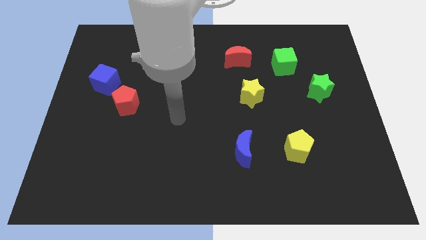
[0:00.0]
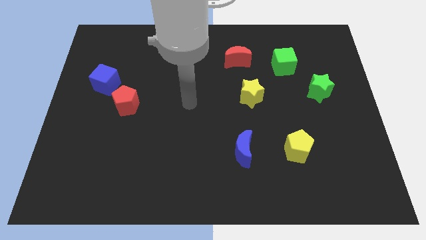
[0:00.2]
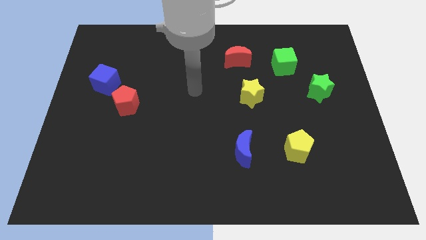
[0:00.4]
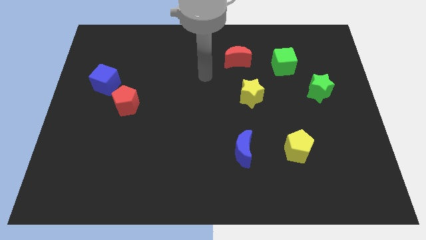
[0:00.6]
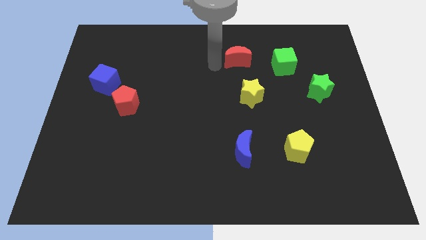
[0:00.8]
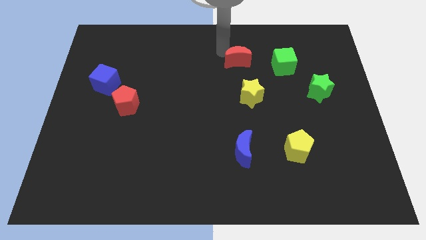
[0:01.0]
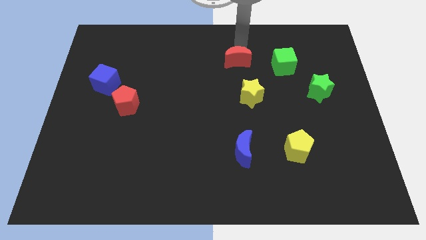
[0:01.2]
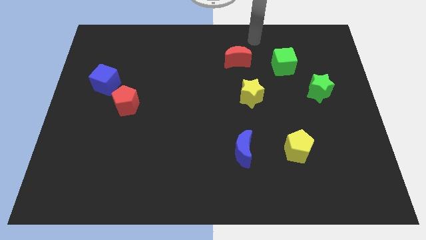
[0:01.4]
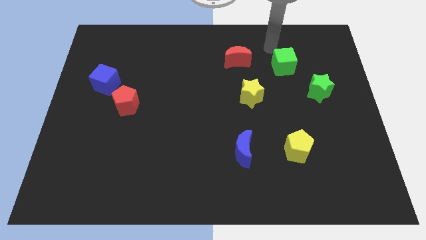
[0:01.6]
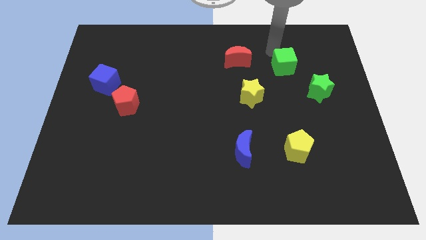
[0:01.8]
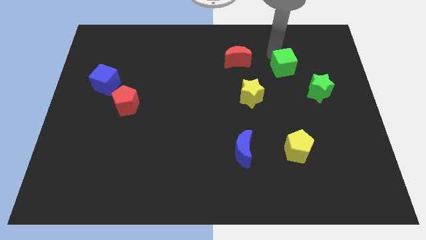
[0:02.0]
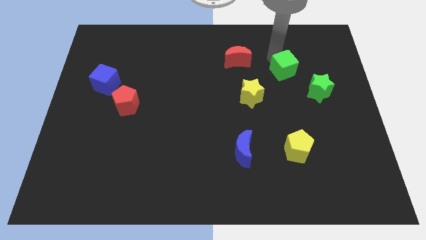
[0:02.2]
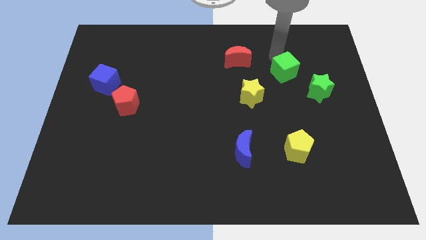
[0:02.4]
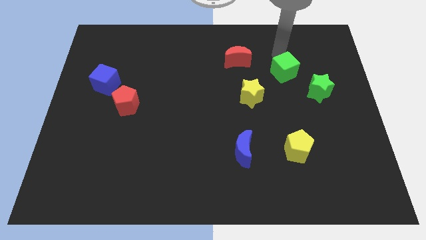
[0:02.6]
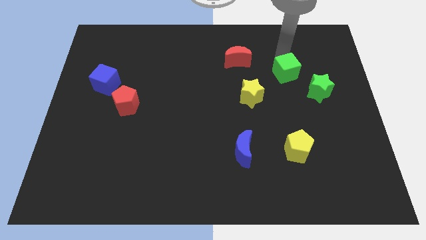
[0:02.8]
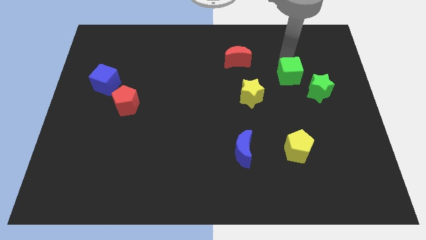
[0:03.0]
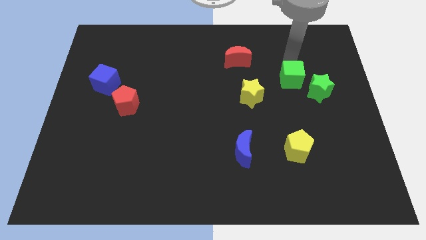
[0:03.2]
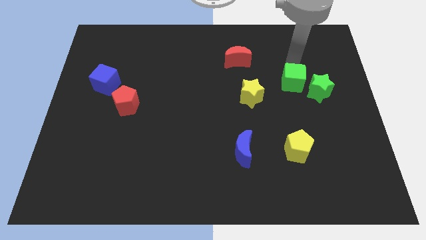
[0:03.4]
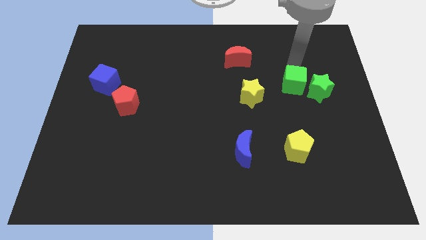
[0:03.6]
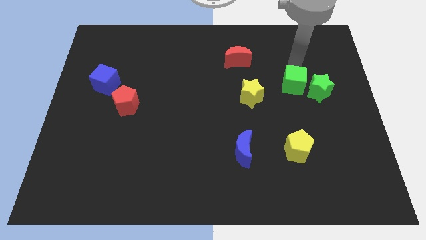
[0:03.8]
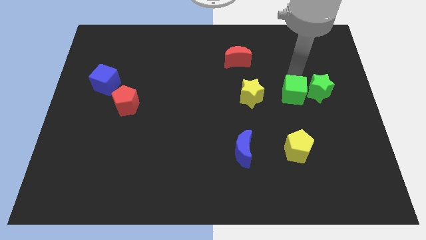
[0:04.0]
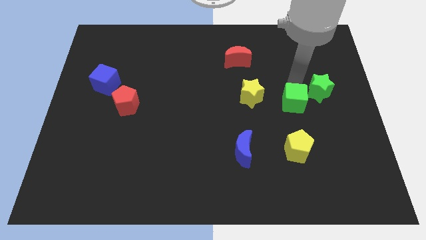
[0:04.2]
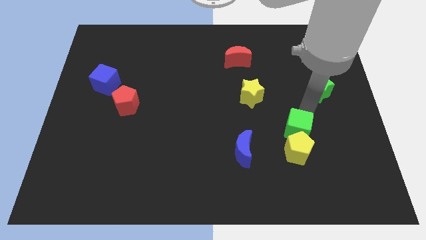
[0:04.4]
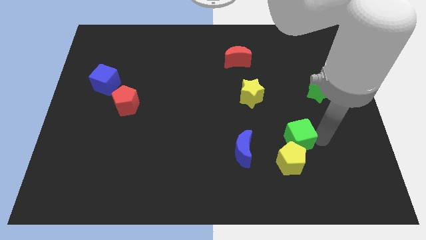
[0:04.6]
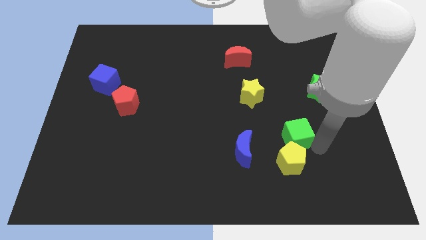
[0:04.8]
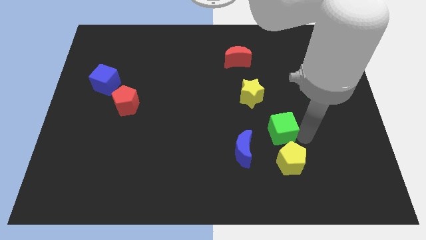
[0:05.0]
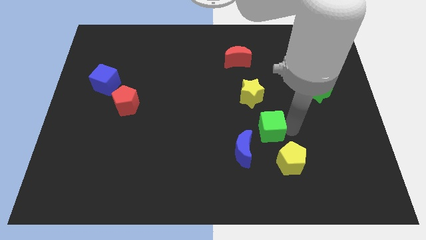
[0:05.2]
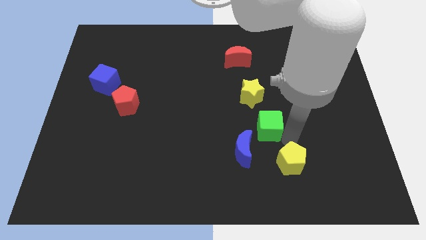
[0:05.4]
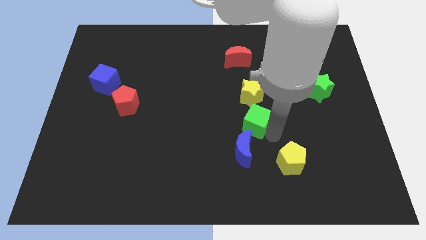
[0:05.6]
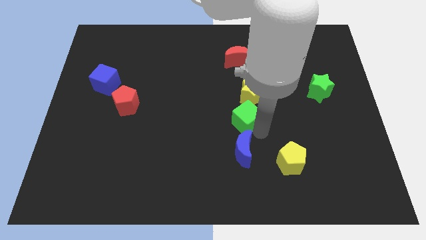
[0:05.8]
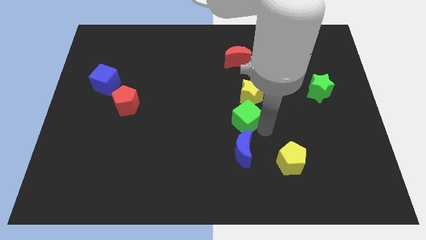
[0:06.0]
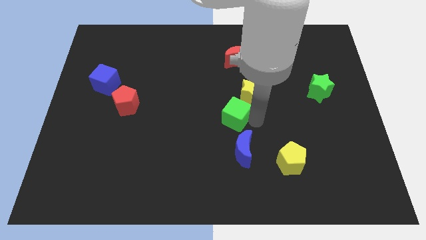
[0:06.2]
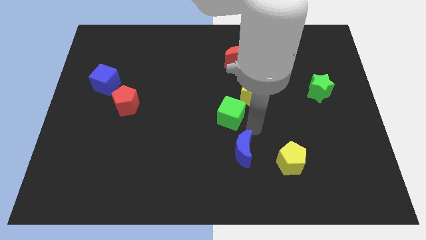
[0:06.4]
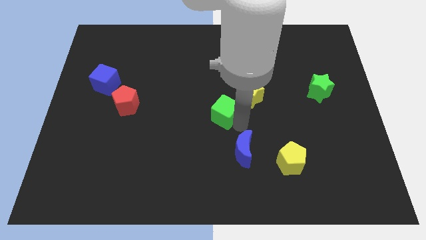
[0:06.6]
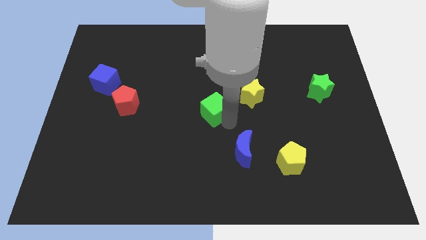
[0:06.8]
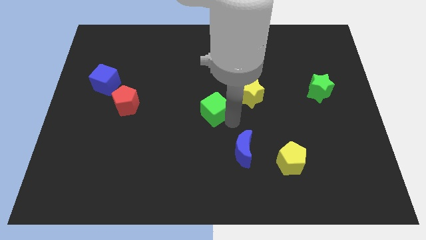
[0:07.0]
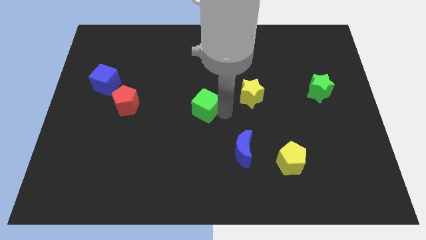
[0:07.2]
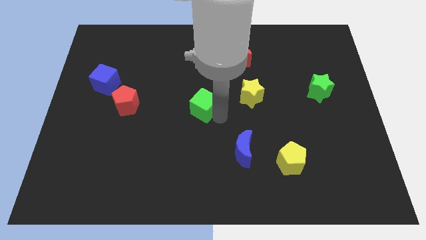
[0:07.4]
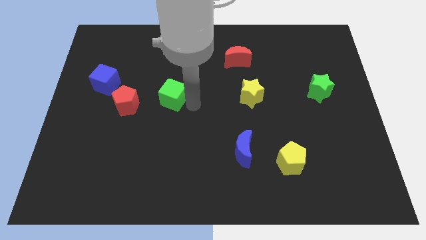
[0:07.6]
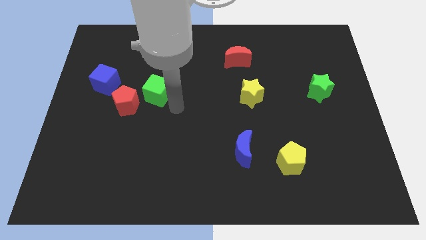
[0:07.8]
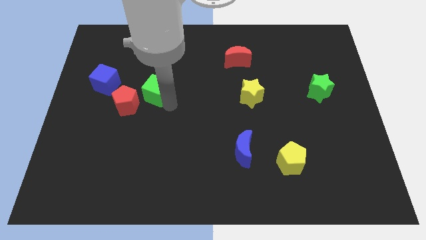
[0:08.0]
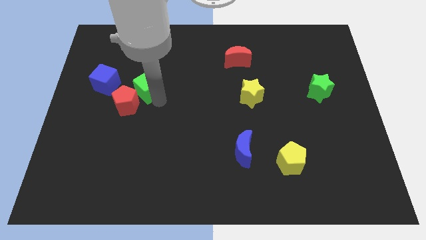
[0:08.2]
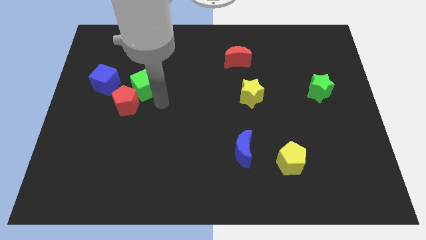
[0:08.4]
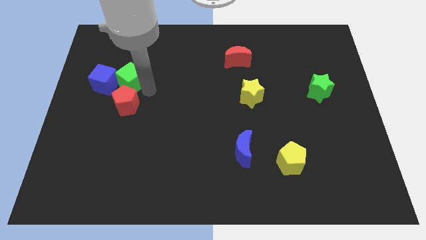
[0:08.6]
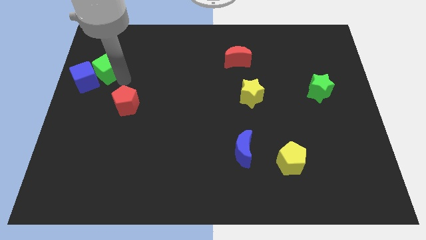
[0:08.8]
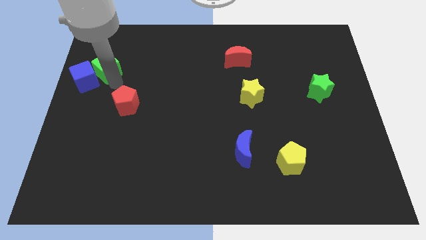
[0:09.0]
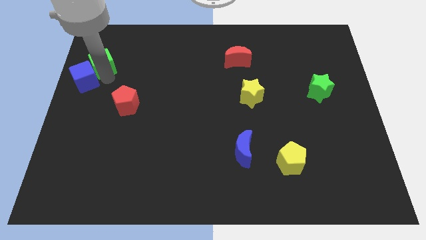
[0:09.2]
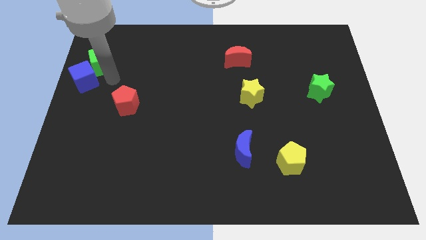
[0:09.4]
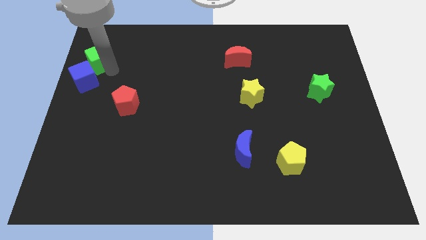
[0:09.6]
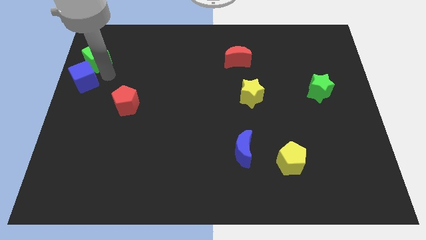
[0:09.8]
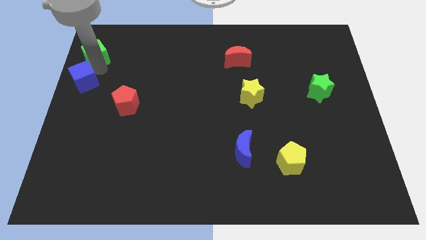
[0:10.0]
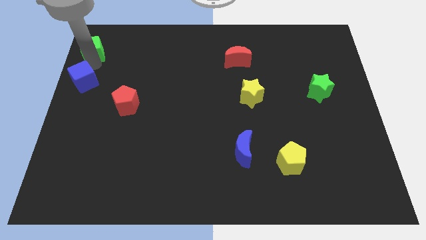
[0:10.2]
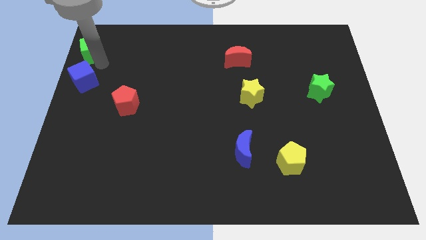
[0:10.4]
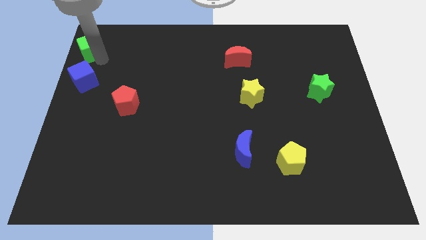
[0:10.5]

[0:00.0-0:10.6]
slide the green cube to the top left

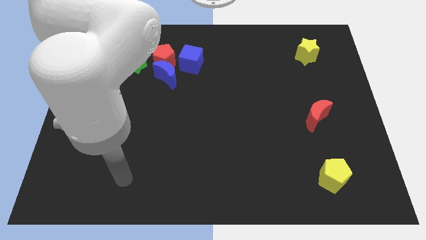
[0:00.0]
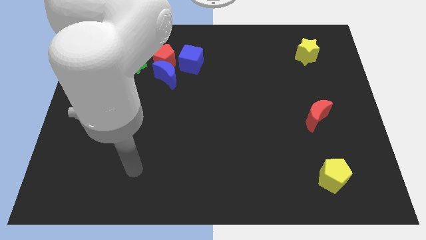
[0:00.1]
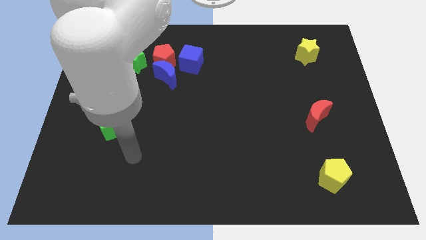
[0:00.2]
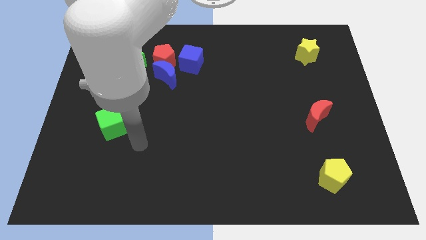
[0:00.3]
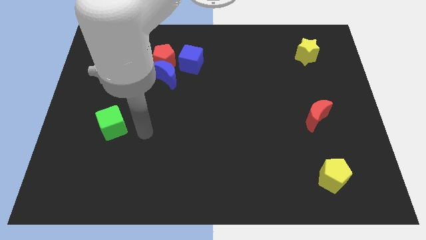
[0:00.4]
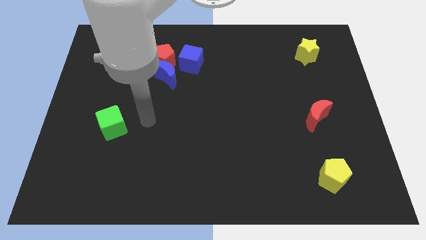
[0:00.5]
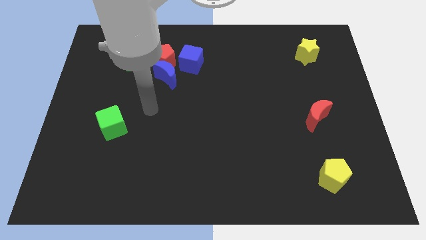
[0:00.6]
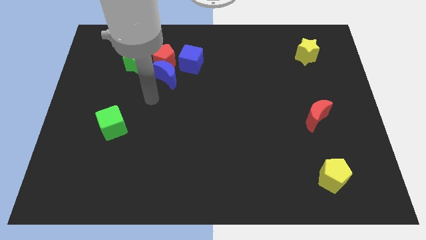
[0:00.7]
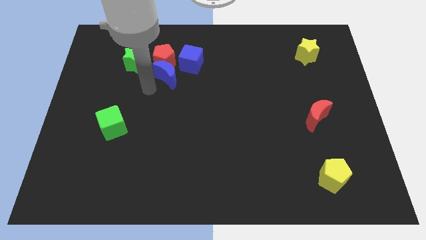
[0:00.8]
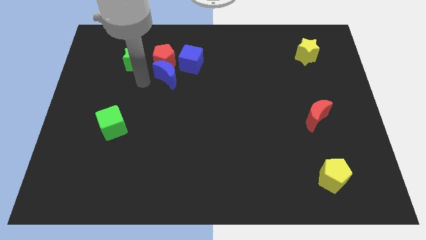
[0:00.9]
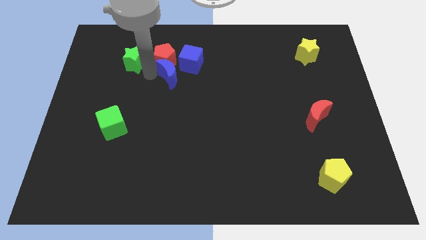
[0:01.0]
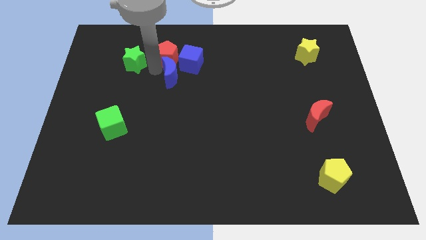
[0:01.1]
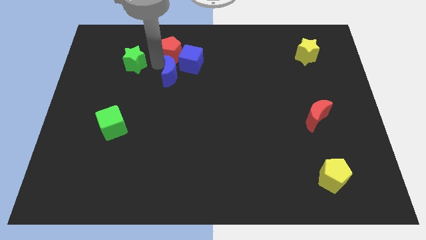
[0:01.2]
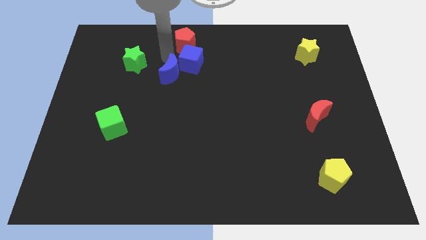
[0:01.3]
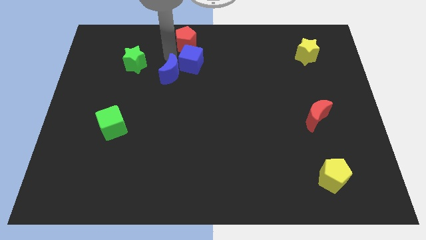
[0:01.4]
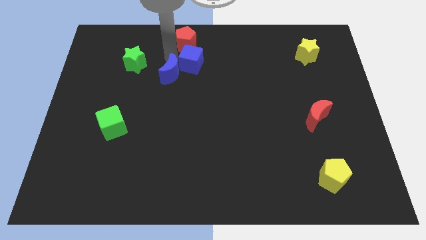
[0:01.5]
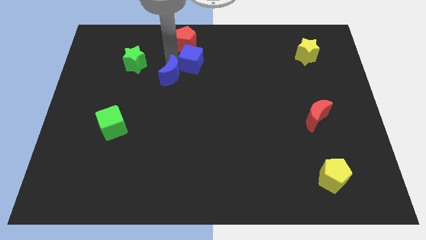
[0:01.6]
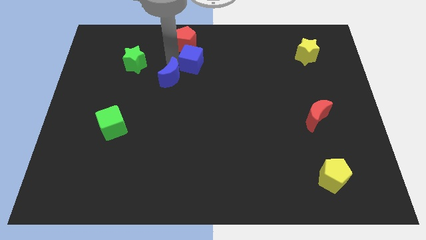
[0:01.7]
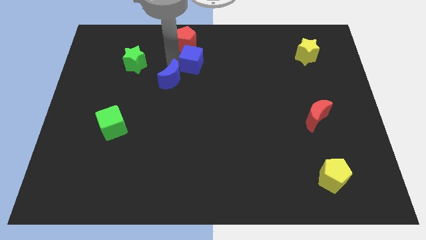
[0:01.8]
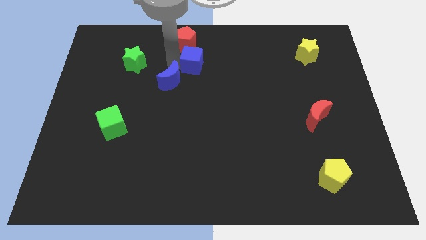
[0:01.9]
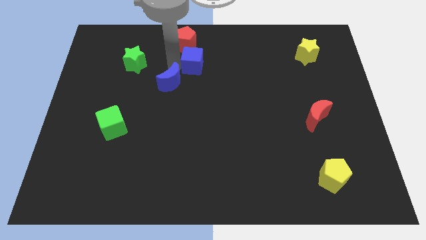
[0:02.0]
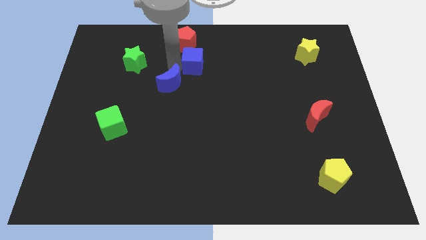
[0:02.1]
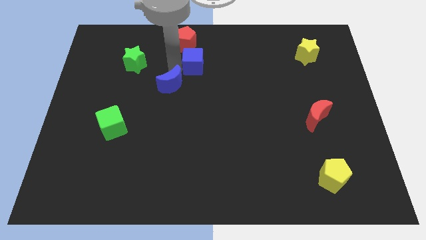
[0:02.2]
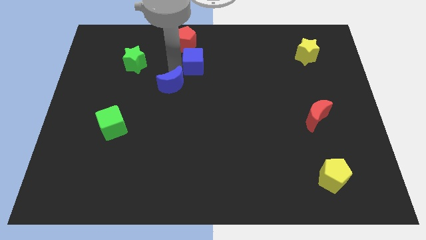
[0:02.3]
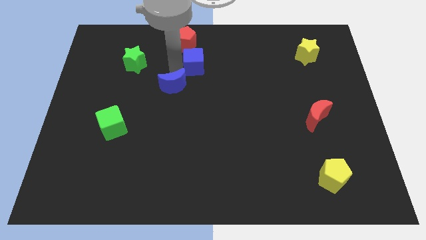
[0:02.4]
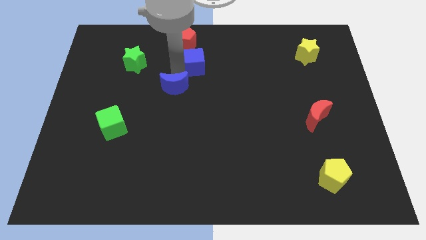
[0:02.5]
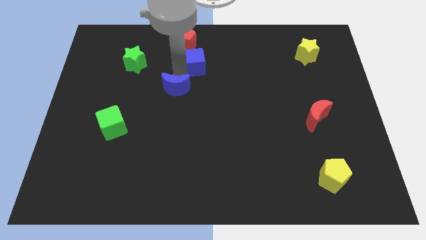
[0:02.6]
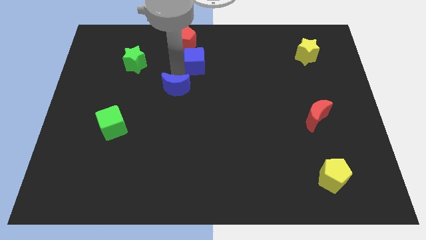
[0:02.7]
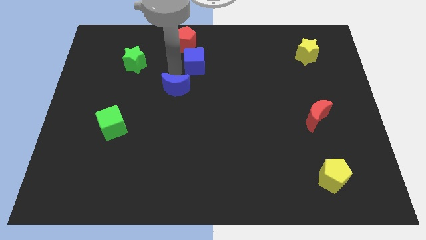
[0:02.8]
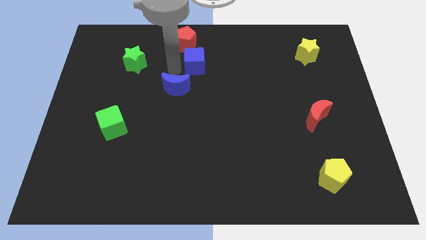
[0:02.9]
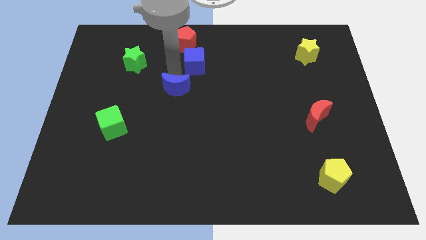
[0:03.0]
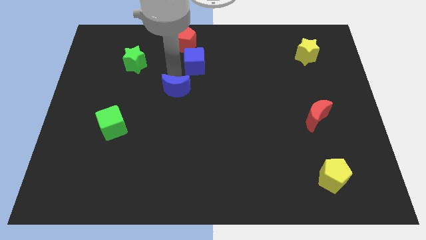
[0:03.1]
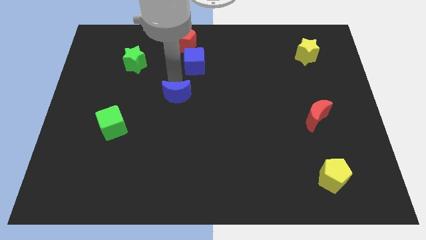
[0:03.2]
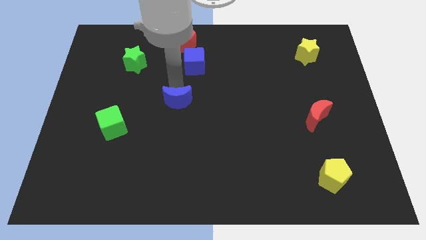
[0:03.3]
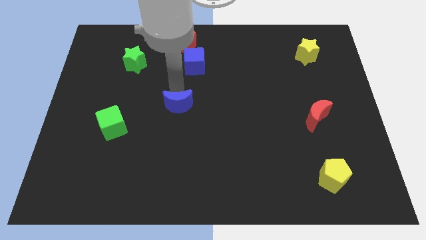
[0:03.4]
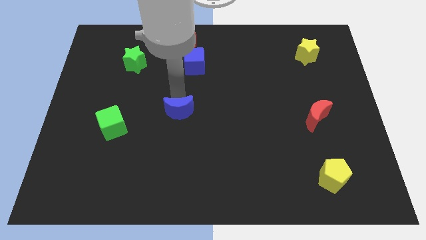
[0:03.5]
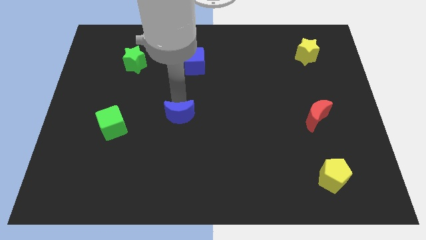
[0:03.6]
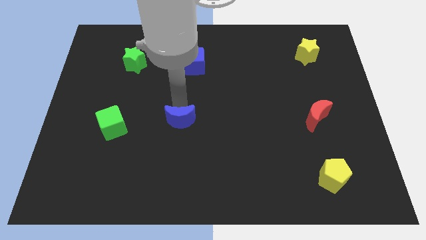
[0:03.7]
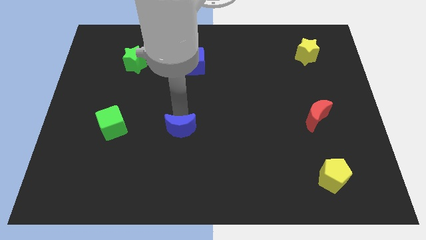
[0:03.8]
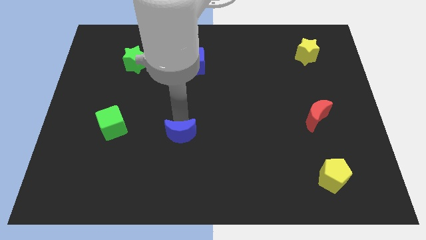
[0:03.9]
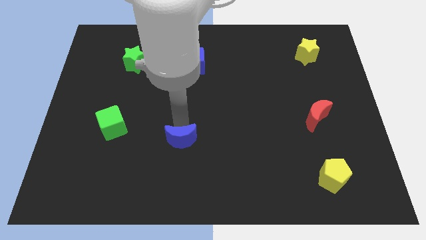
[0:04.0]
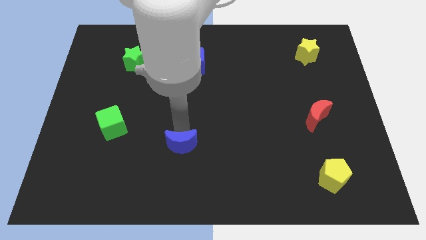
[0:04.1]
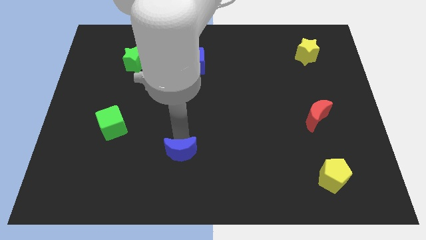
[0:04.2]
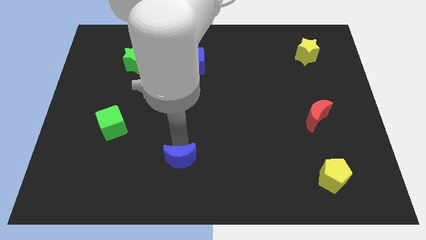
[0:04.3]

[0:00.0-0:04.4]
move the blue moon to the bottom
